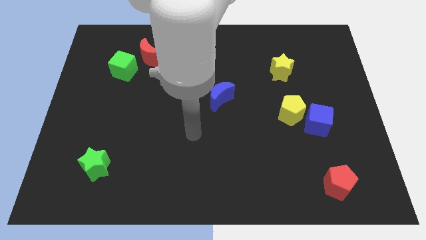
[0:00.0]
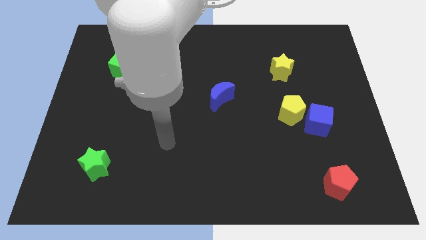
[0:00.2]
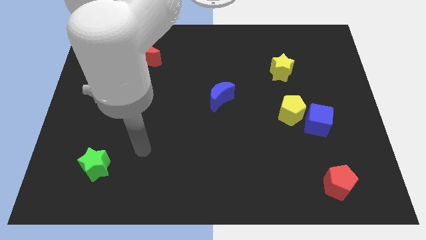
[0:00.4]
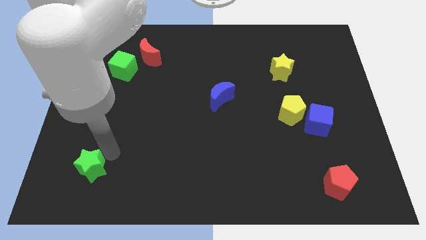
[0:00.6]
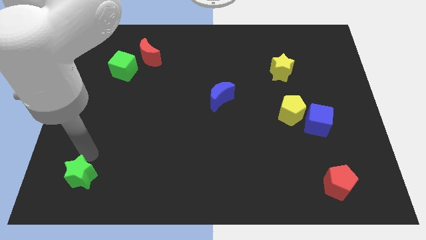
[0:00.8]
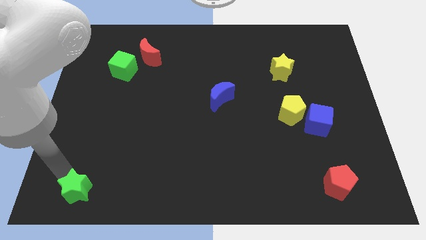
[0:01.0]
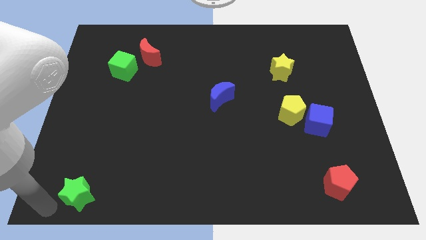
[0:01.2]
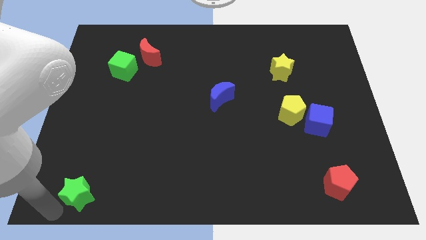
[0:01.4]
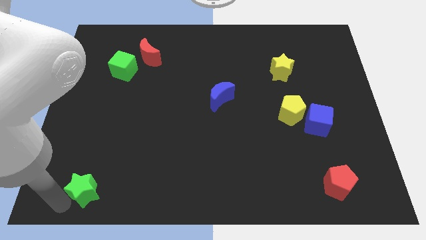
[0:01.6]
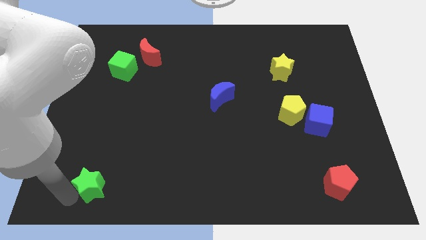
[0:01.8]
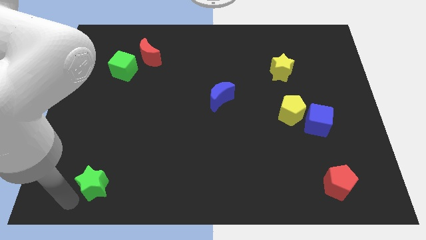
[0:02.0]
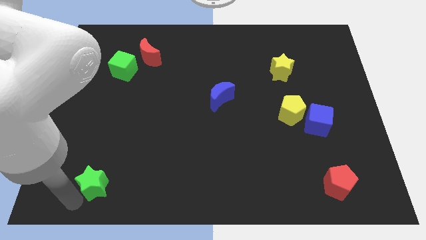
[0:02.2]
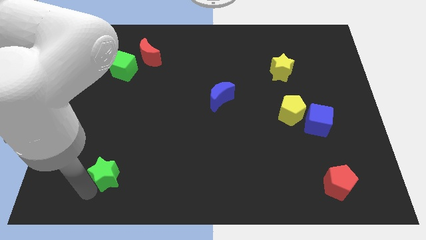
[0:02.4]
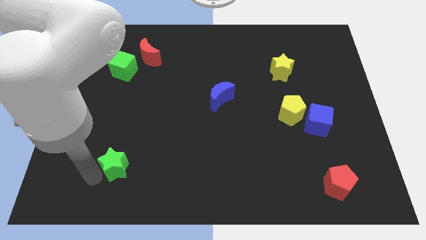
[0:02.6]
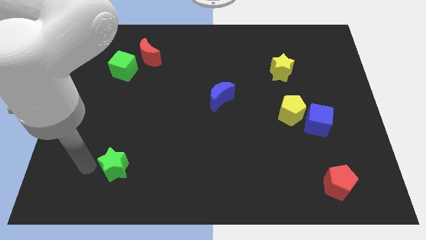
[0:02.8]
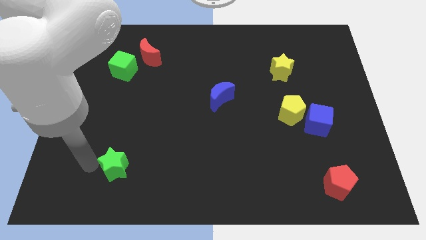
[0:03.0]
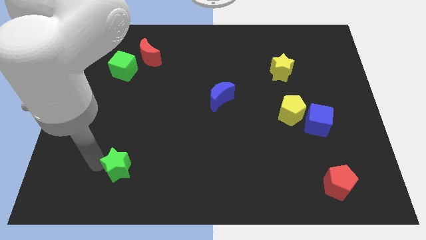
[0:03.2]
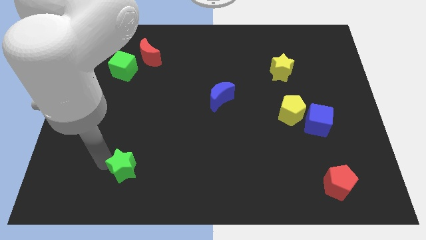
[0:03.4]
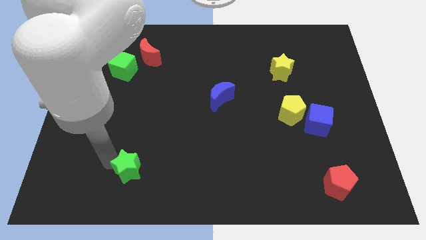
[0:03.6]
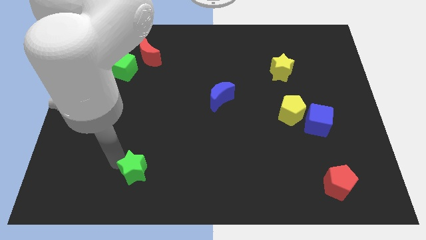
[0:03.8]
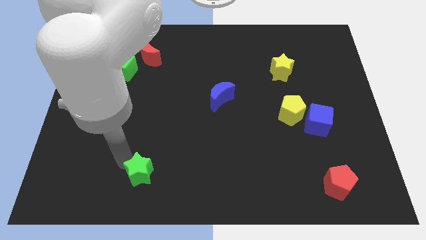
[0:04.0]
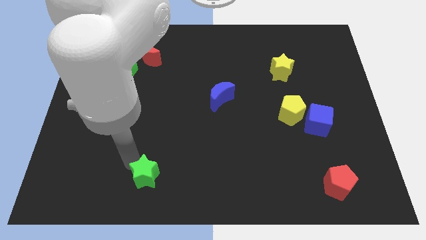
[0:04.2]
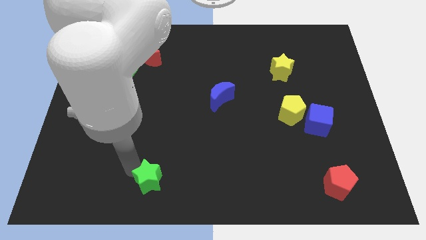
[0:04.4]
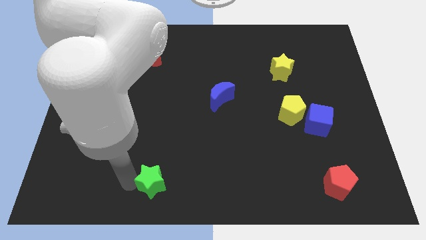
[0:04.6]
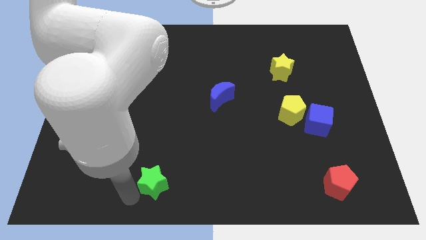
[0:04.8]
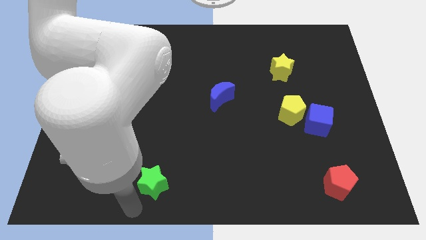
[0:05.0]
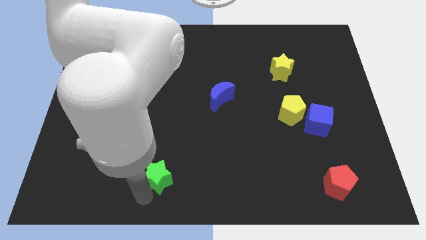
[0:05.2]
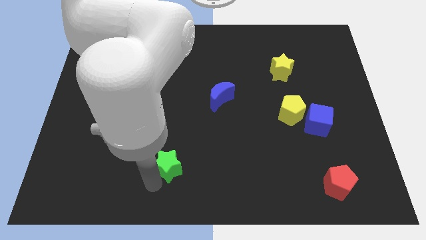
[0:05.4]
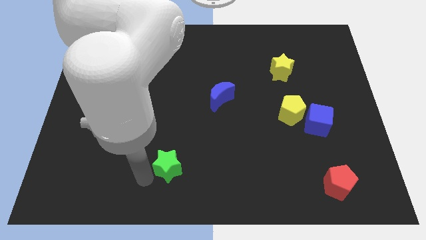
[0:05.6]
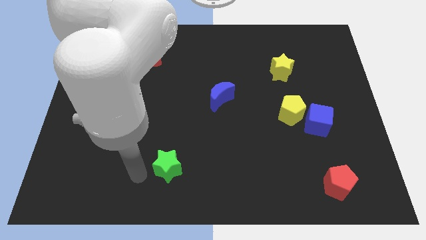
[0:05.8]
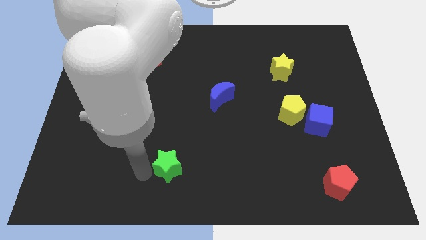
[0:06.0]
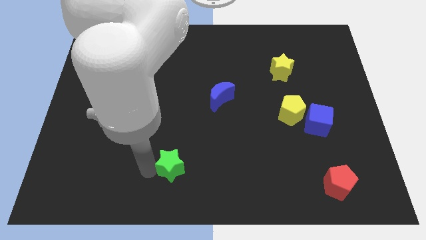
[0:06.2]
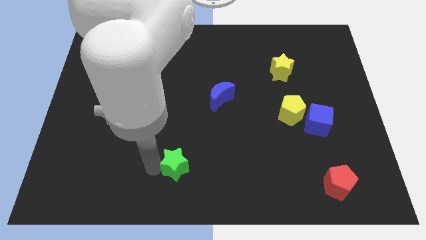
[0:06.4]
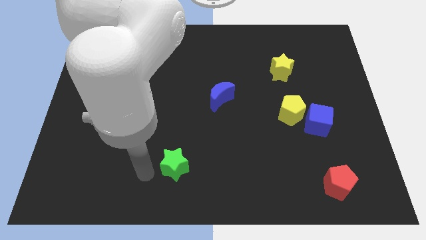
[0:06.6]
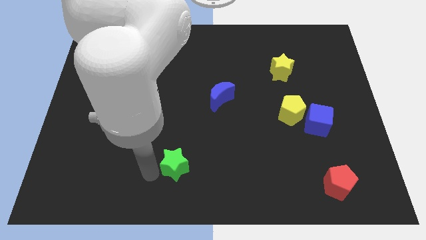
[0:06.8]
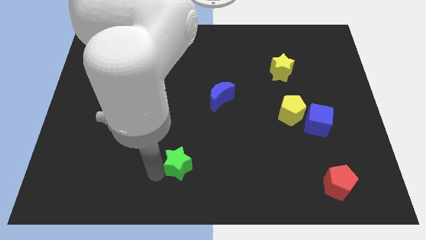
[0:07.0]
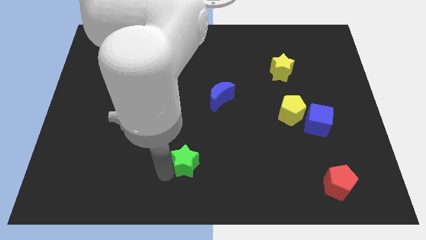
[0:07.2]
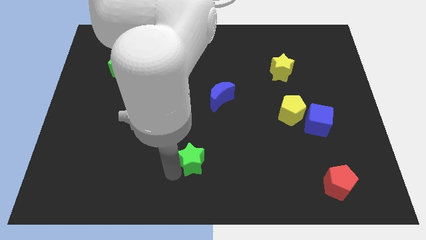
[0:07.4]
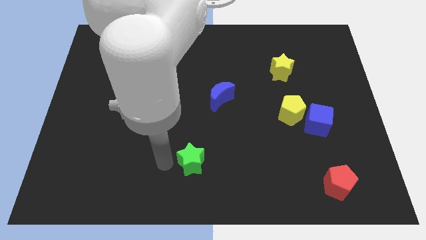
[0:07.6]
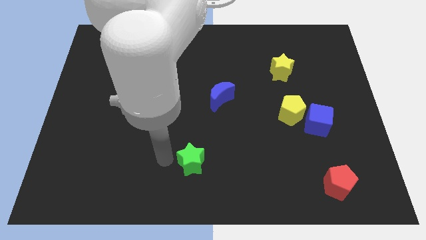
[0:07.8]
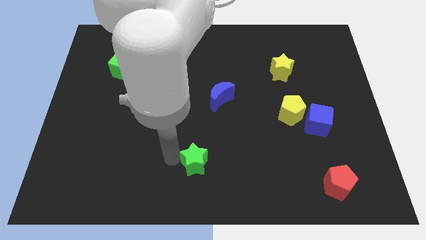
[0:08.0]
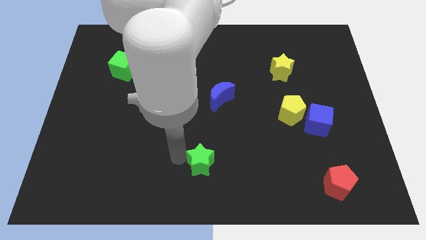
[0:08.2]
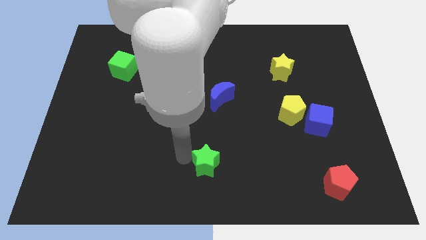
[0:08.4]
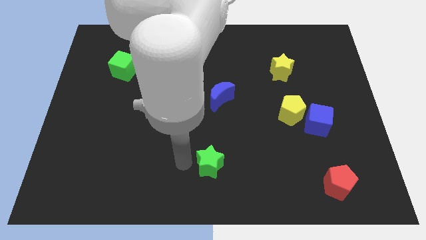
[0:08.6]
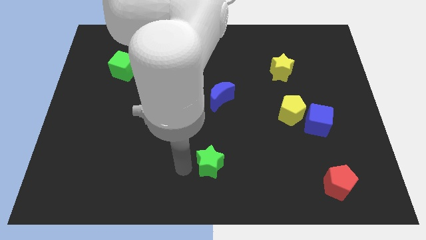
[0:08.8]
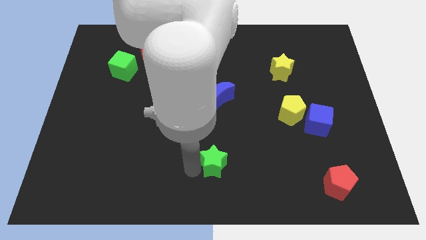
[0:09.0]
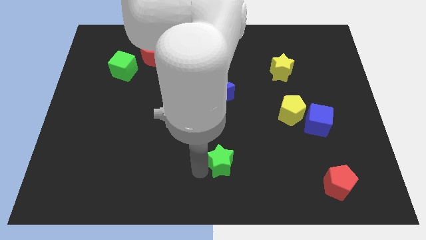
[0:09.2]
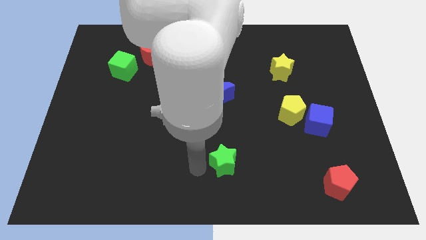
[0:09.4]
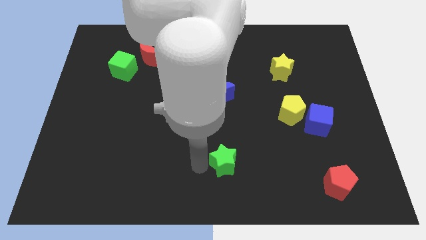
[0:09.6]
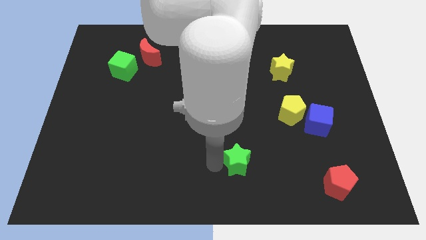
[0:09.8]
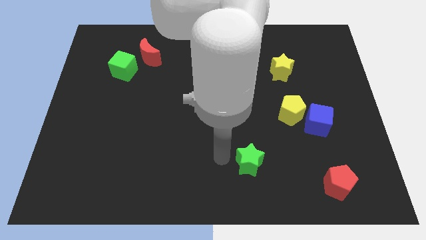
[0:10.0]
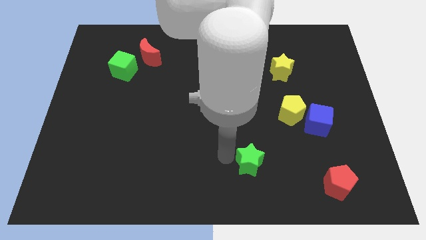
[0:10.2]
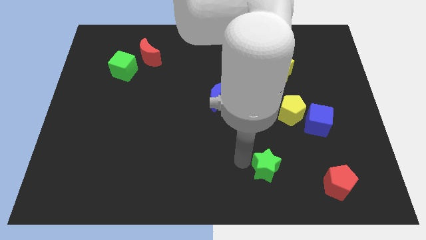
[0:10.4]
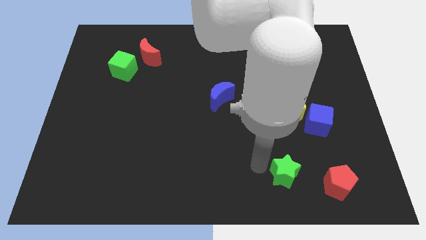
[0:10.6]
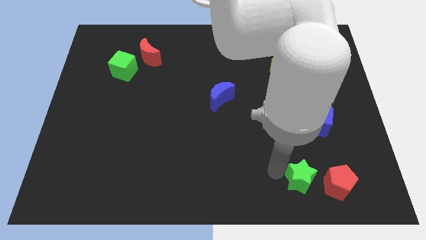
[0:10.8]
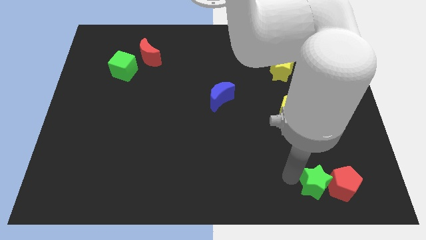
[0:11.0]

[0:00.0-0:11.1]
move the green star to the red pentagon

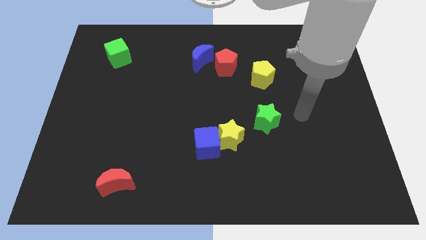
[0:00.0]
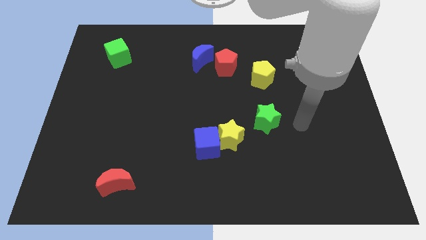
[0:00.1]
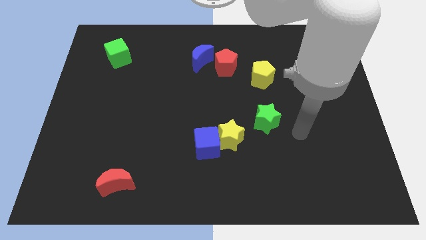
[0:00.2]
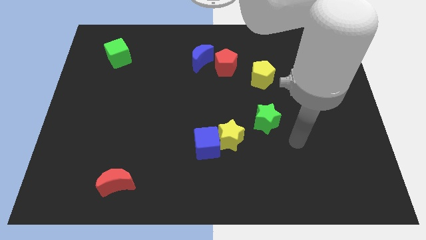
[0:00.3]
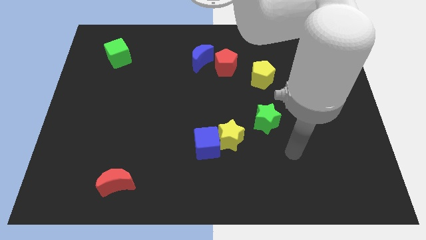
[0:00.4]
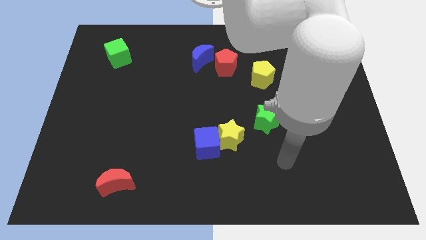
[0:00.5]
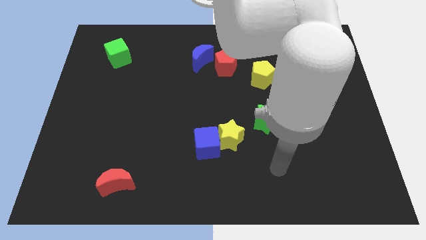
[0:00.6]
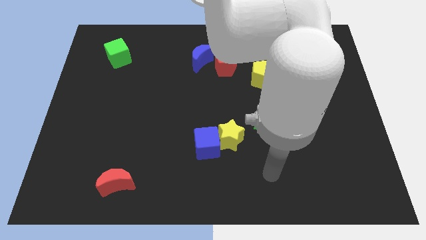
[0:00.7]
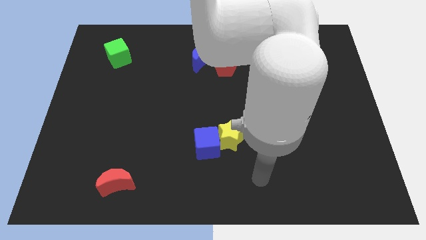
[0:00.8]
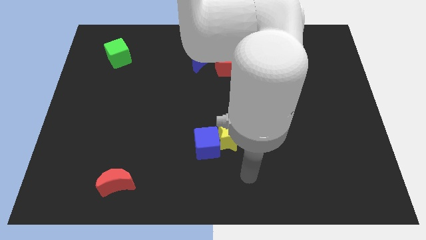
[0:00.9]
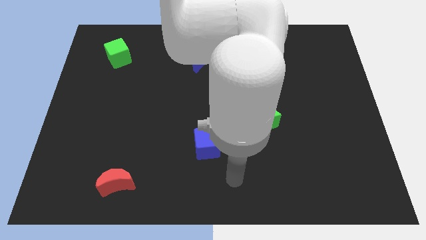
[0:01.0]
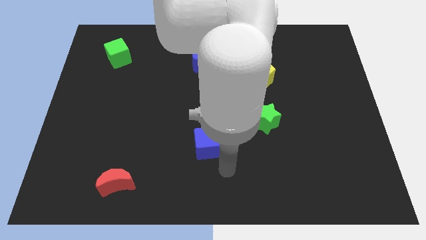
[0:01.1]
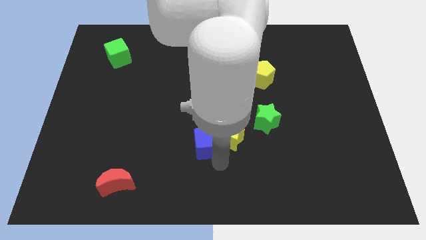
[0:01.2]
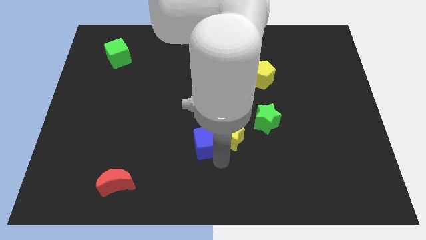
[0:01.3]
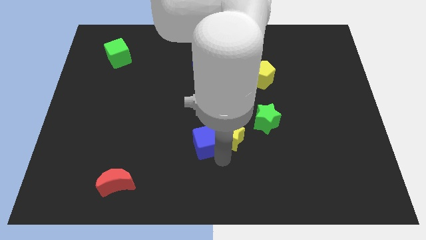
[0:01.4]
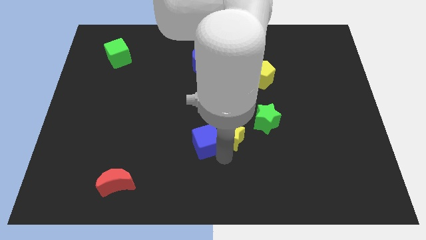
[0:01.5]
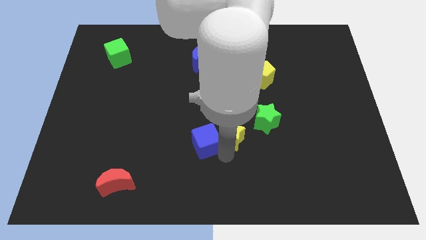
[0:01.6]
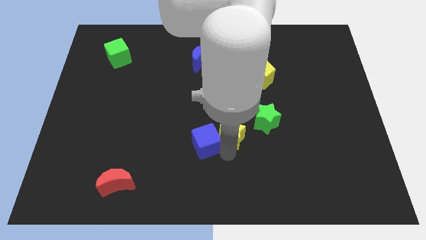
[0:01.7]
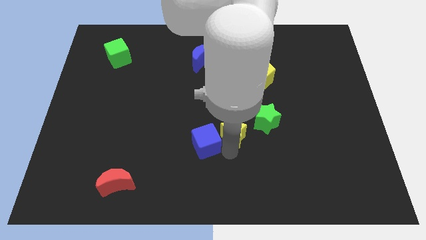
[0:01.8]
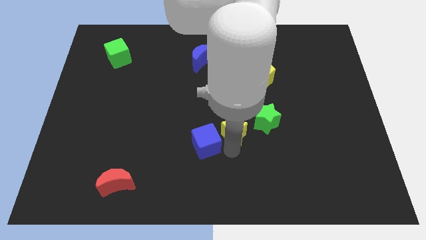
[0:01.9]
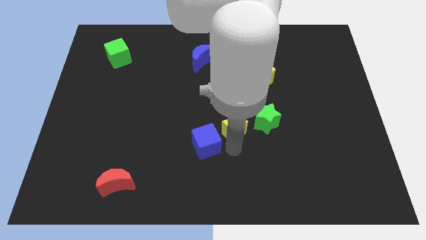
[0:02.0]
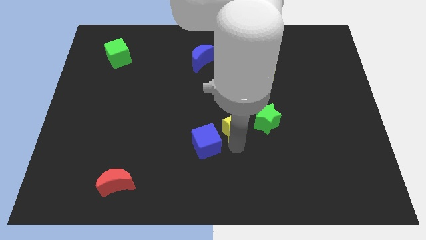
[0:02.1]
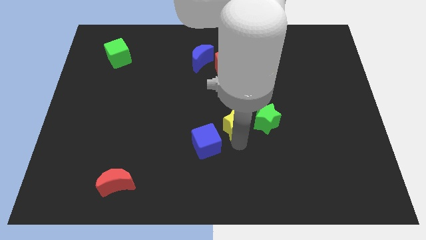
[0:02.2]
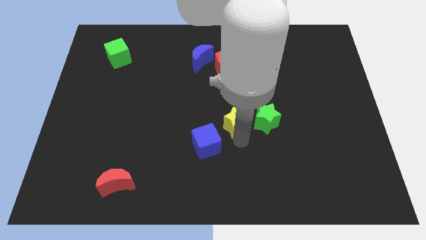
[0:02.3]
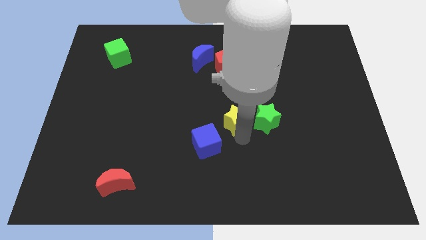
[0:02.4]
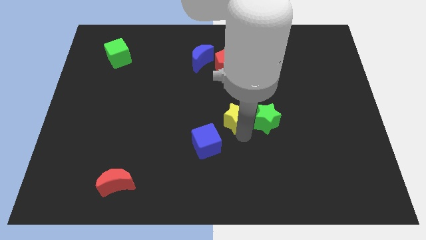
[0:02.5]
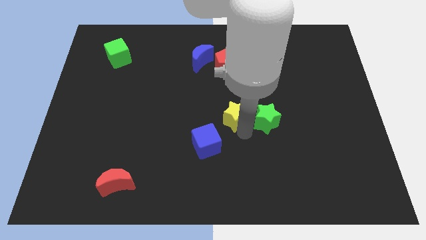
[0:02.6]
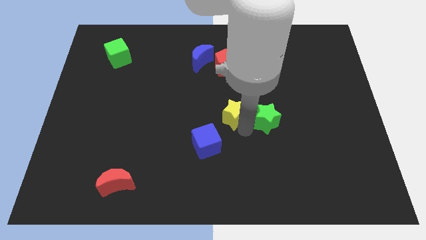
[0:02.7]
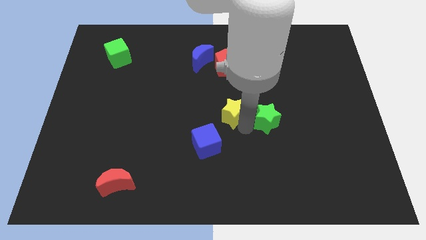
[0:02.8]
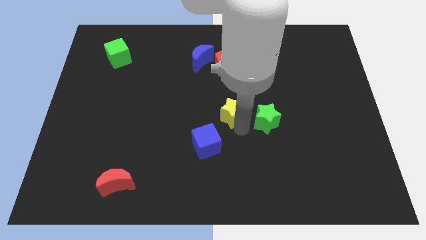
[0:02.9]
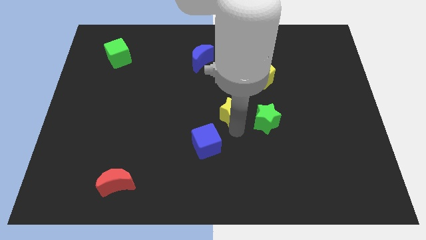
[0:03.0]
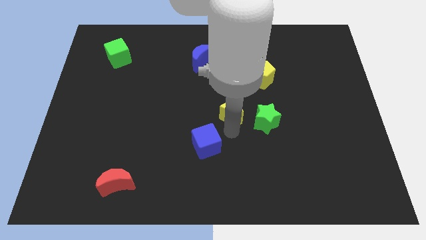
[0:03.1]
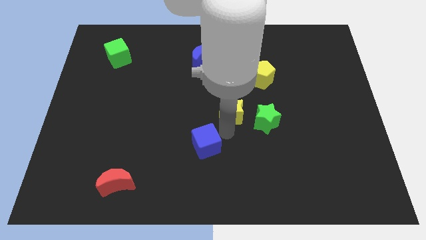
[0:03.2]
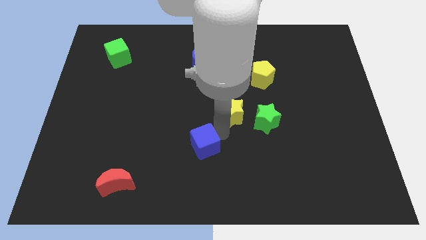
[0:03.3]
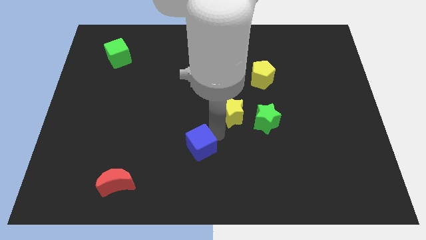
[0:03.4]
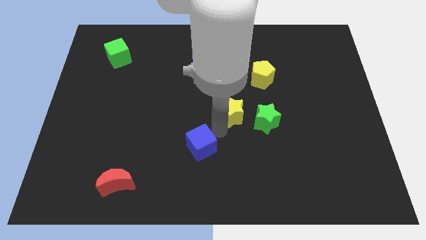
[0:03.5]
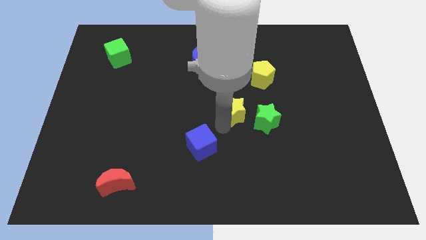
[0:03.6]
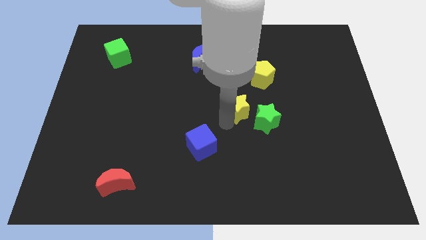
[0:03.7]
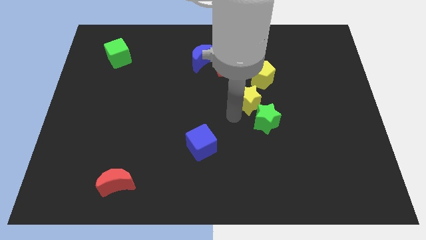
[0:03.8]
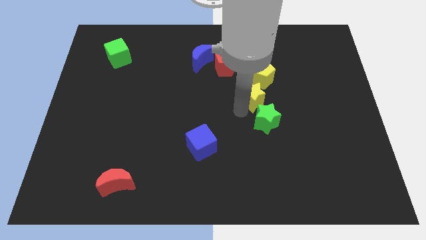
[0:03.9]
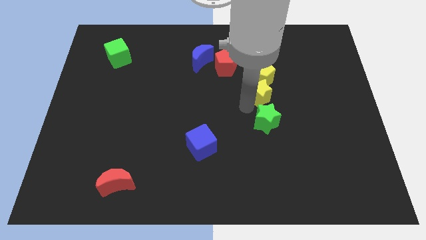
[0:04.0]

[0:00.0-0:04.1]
put the yellow star towards the yellow pentagon
